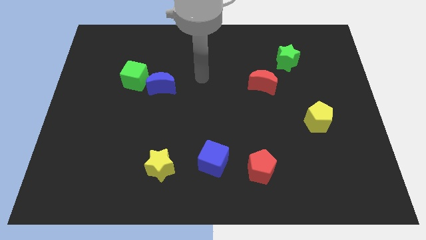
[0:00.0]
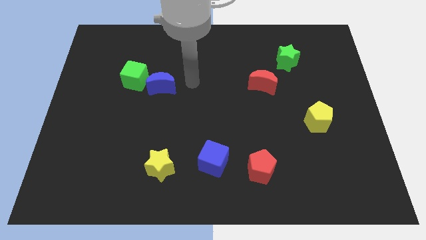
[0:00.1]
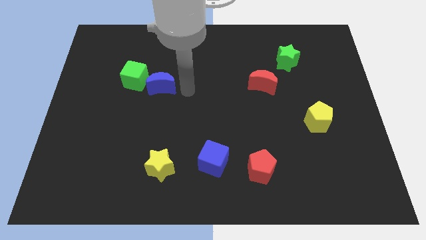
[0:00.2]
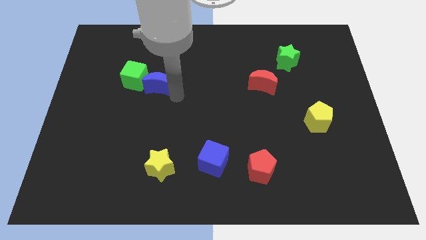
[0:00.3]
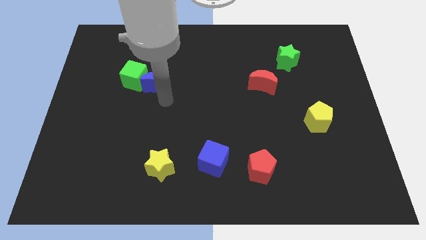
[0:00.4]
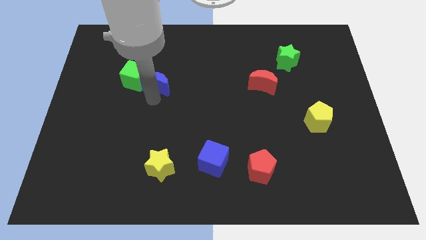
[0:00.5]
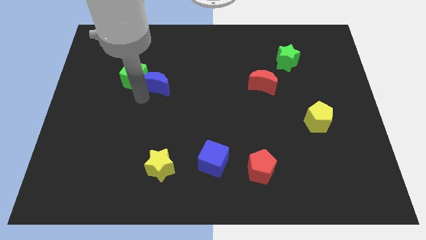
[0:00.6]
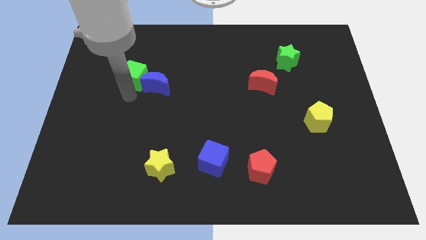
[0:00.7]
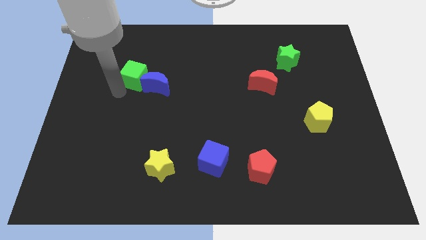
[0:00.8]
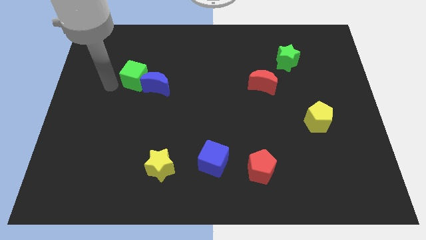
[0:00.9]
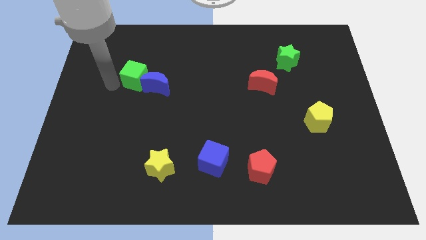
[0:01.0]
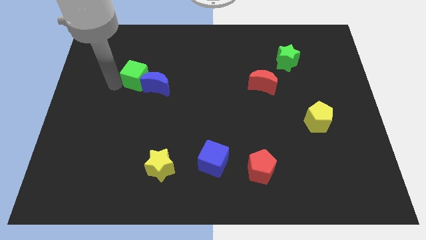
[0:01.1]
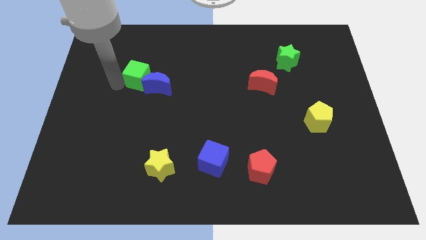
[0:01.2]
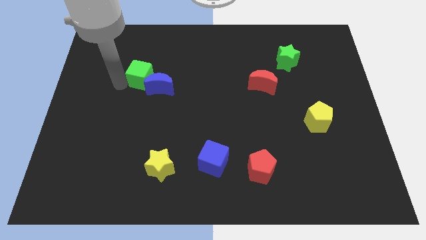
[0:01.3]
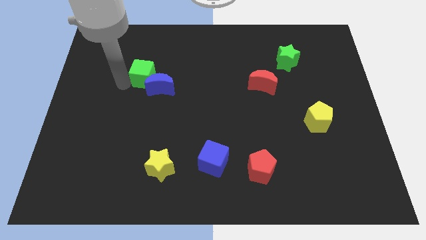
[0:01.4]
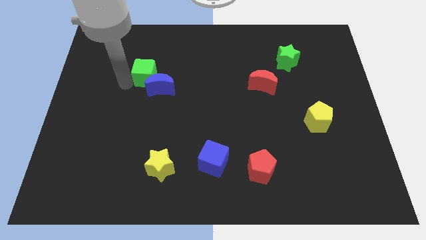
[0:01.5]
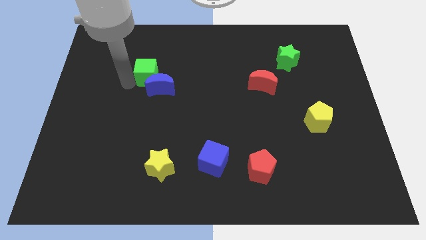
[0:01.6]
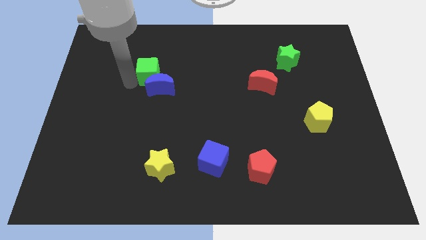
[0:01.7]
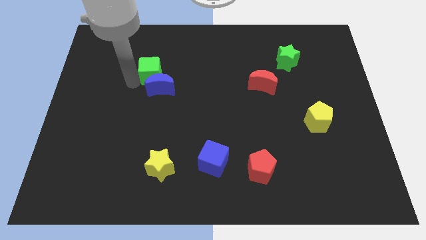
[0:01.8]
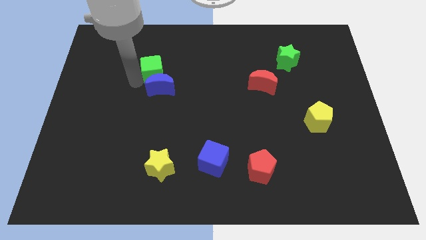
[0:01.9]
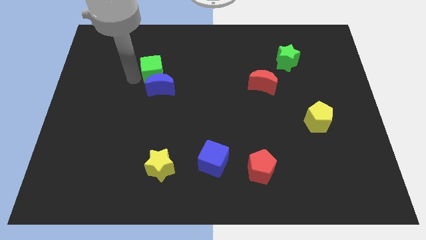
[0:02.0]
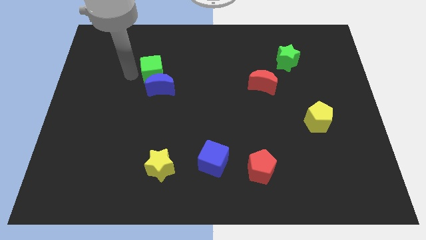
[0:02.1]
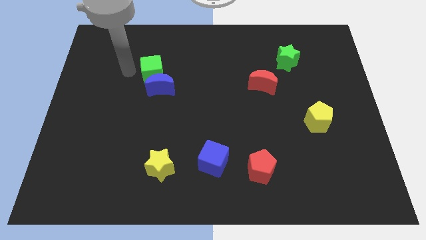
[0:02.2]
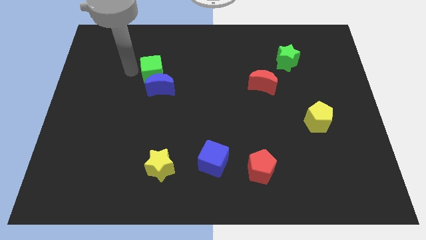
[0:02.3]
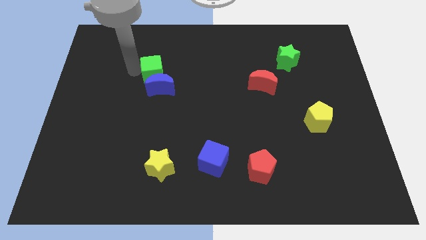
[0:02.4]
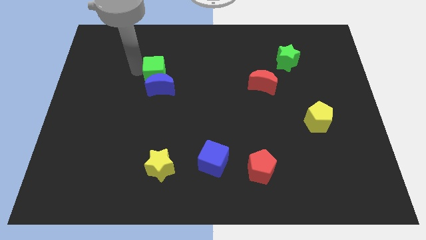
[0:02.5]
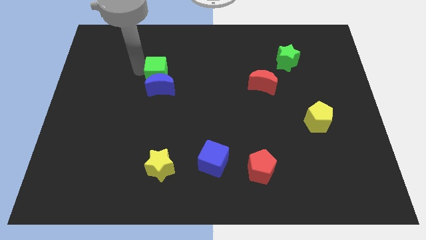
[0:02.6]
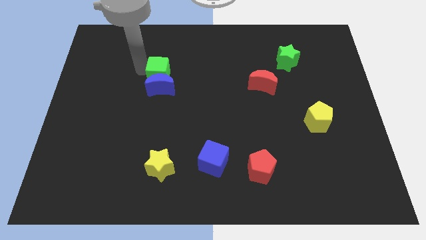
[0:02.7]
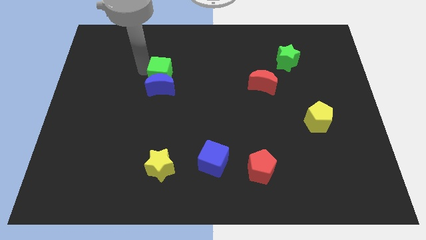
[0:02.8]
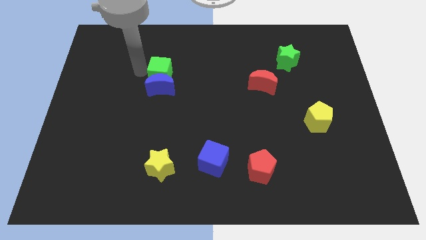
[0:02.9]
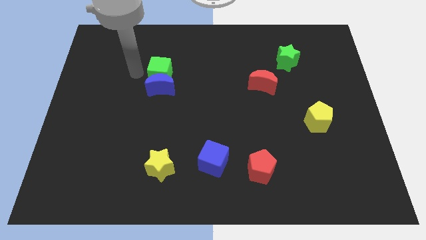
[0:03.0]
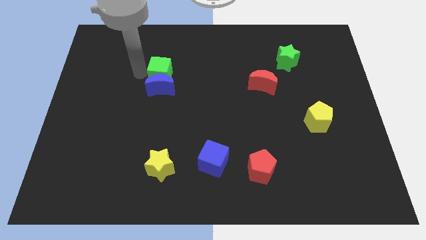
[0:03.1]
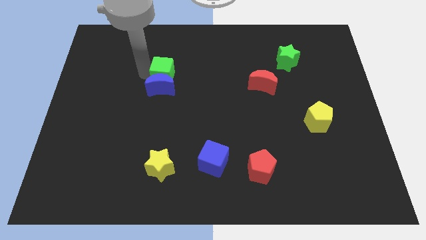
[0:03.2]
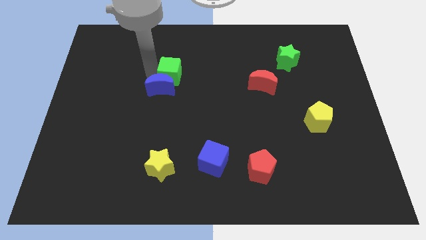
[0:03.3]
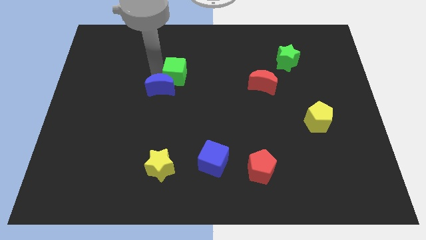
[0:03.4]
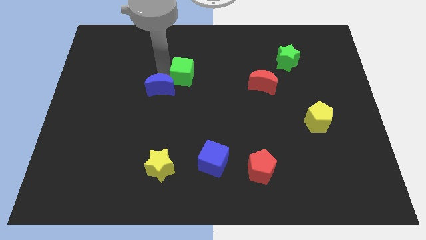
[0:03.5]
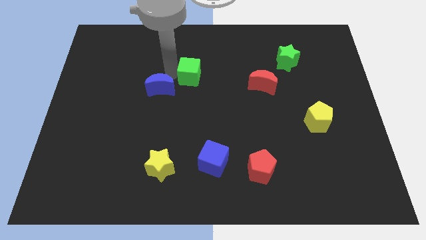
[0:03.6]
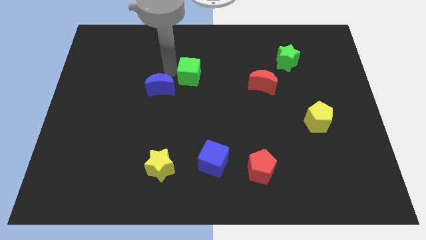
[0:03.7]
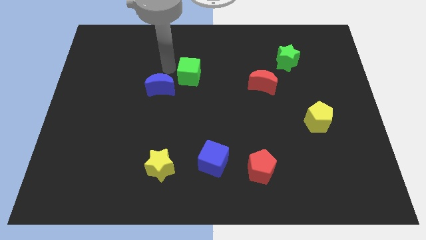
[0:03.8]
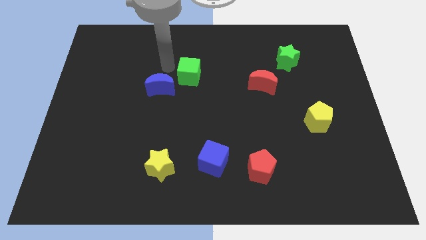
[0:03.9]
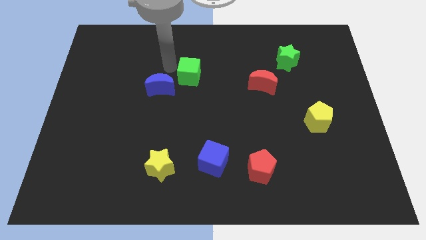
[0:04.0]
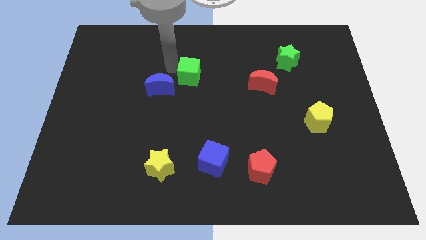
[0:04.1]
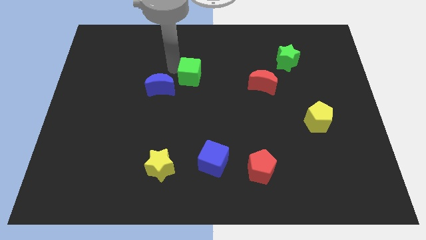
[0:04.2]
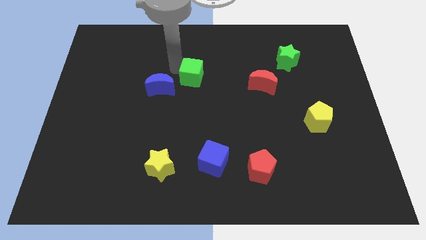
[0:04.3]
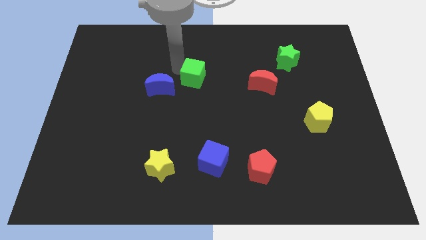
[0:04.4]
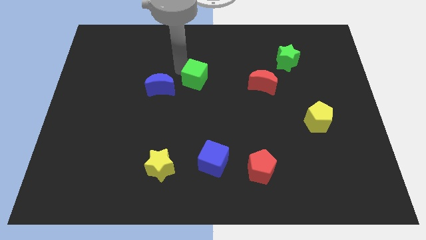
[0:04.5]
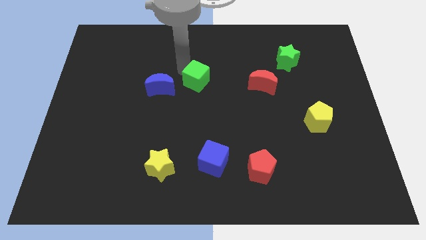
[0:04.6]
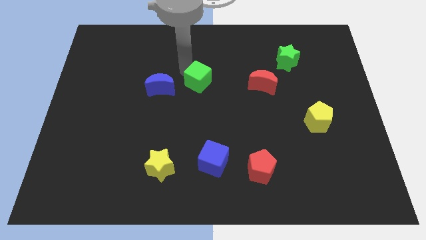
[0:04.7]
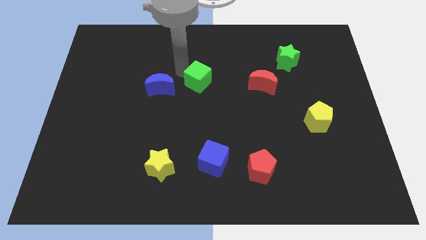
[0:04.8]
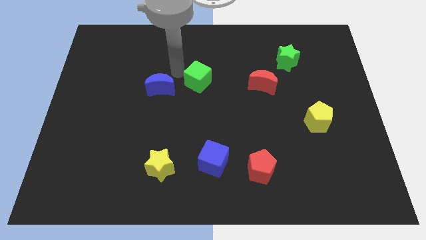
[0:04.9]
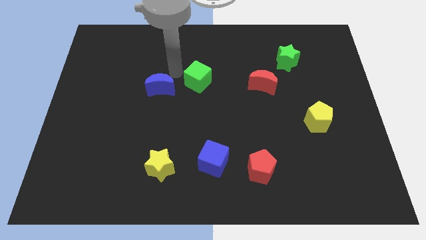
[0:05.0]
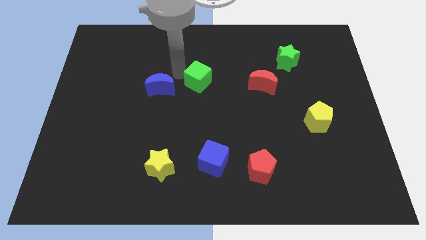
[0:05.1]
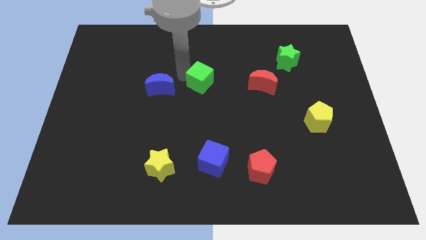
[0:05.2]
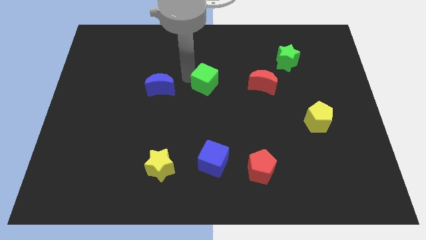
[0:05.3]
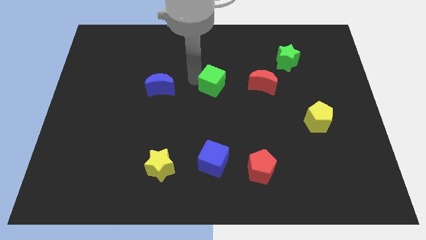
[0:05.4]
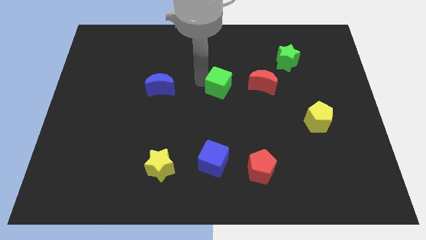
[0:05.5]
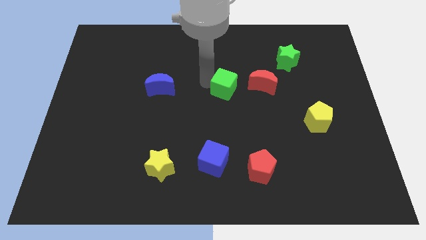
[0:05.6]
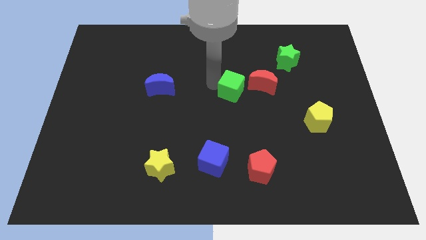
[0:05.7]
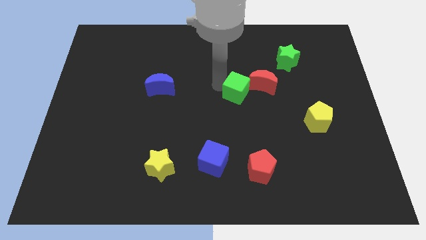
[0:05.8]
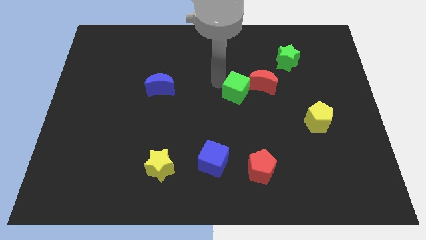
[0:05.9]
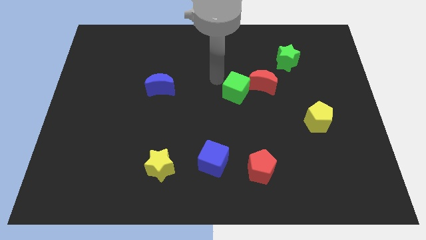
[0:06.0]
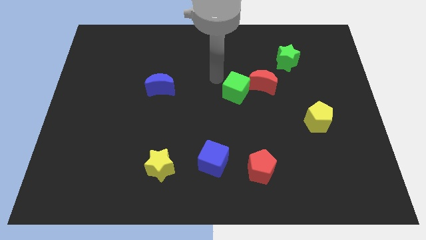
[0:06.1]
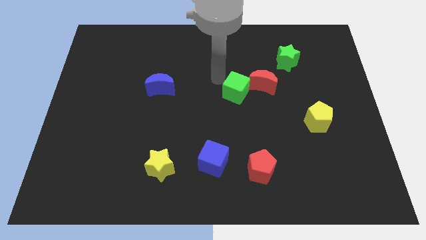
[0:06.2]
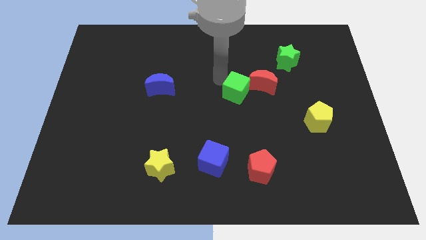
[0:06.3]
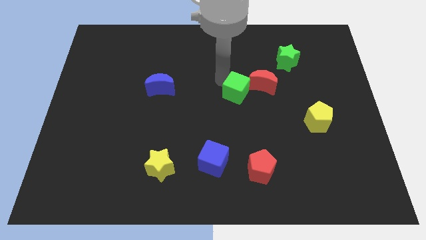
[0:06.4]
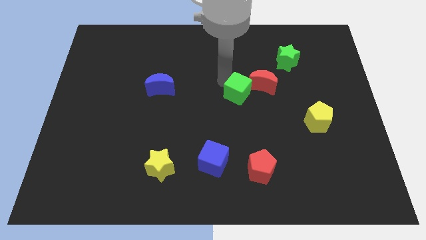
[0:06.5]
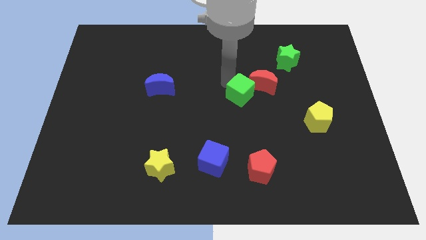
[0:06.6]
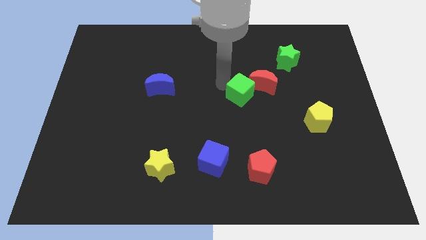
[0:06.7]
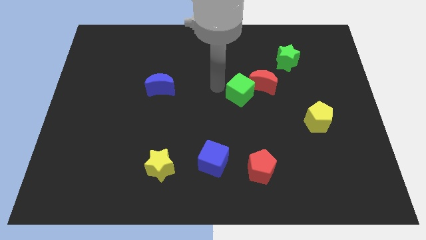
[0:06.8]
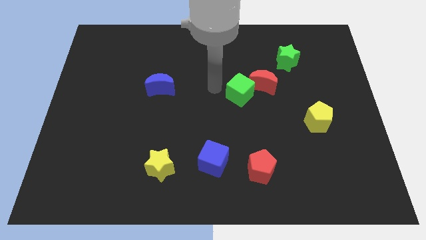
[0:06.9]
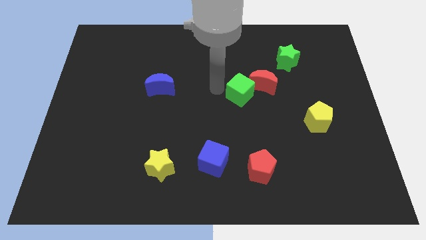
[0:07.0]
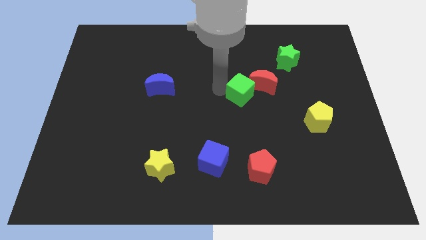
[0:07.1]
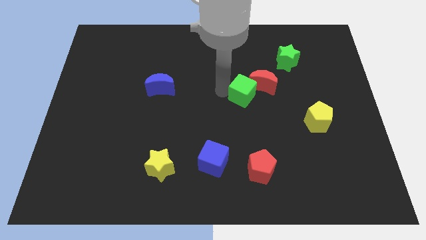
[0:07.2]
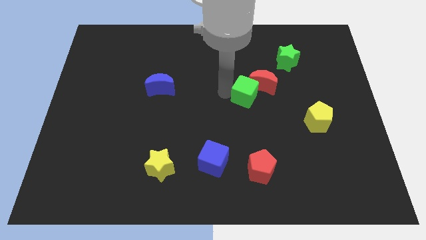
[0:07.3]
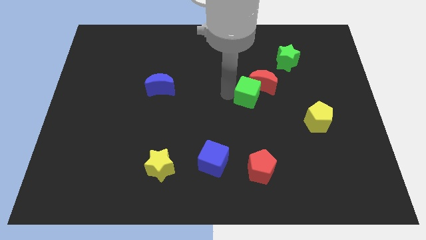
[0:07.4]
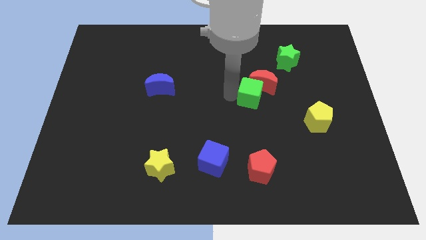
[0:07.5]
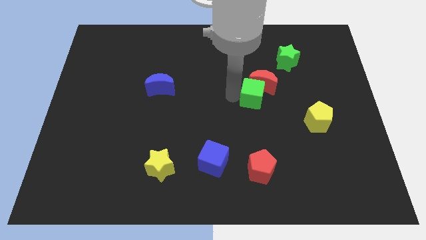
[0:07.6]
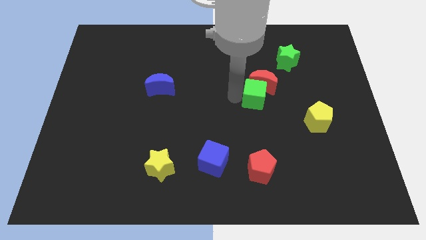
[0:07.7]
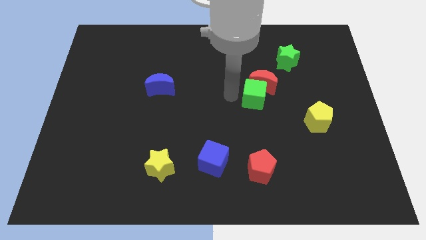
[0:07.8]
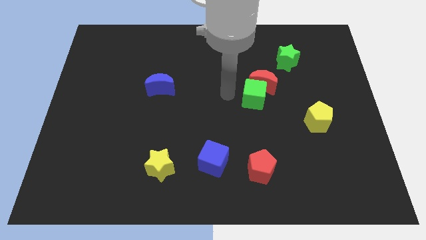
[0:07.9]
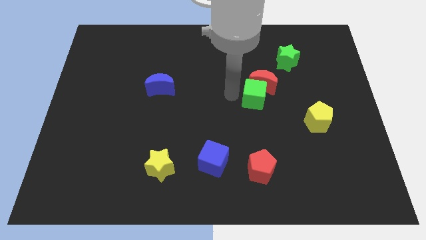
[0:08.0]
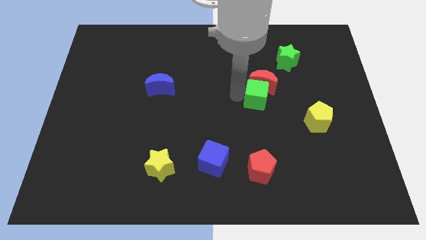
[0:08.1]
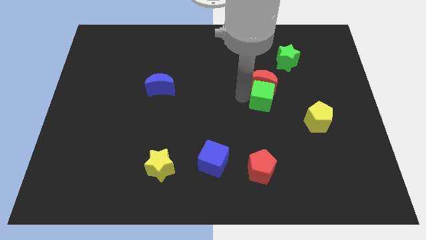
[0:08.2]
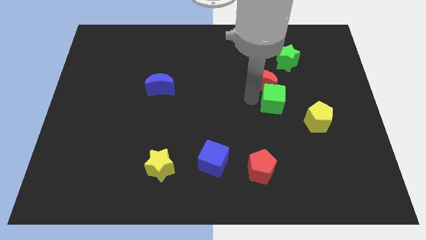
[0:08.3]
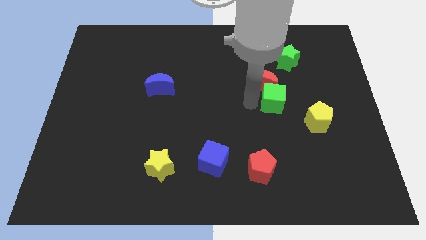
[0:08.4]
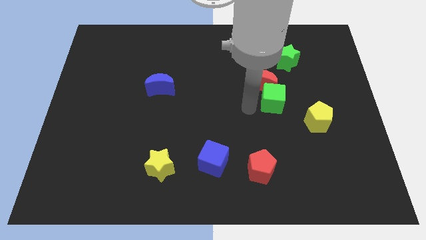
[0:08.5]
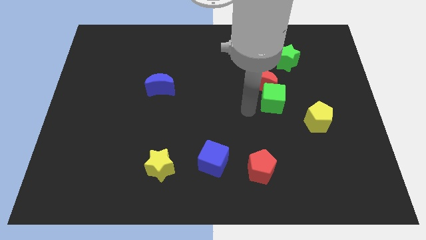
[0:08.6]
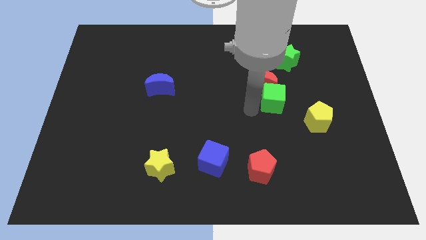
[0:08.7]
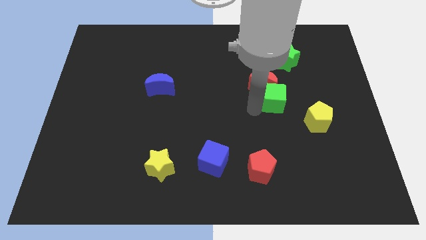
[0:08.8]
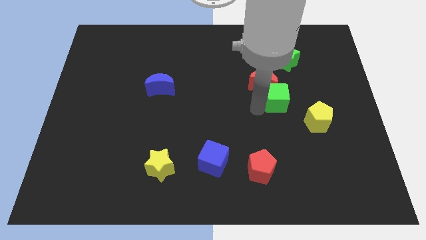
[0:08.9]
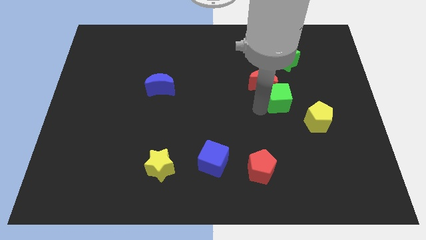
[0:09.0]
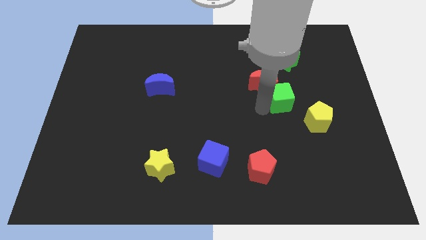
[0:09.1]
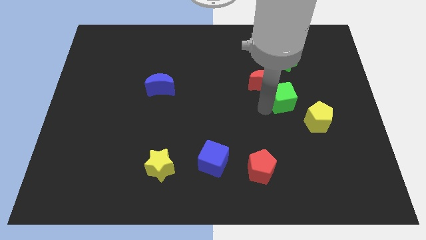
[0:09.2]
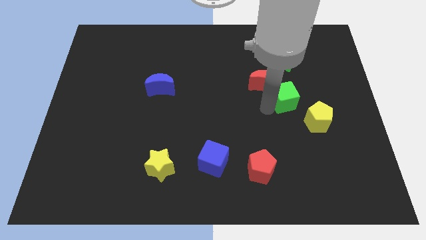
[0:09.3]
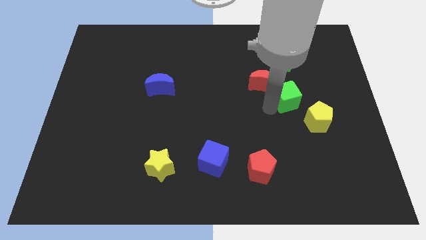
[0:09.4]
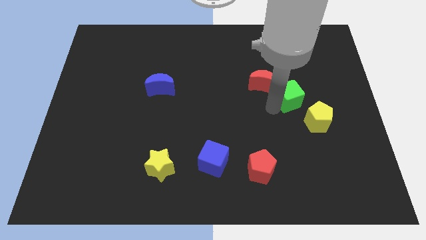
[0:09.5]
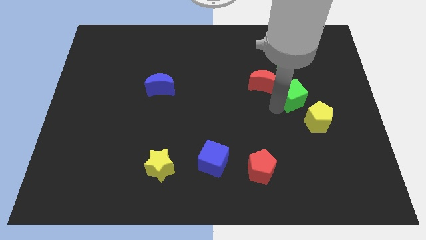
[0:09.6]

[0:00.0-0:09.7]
put the green cube to the top side of the yellow pentagon
